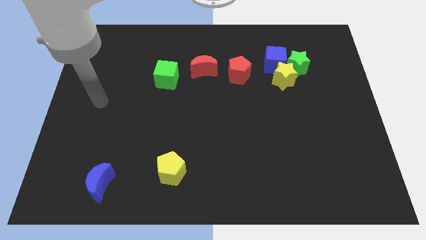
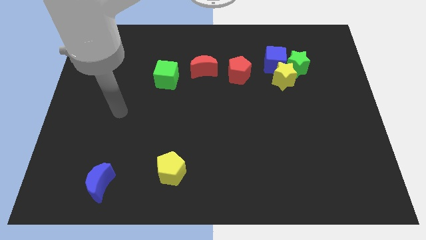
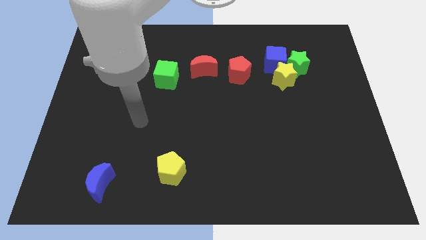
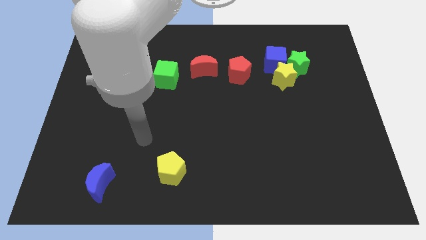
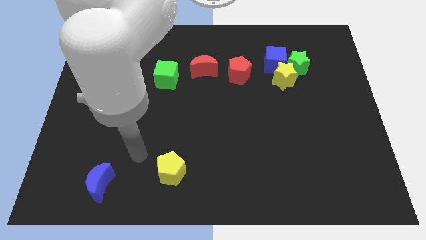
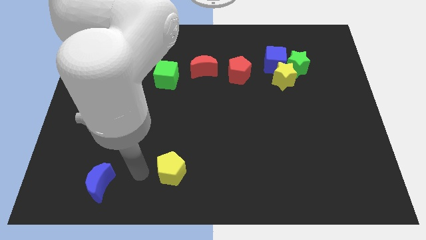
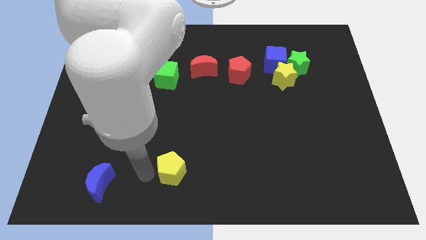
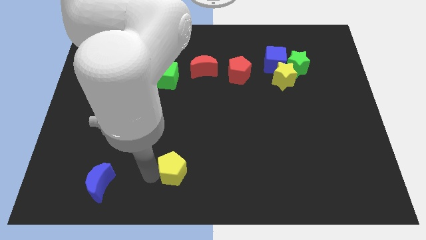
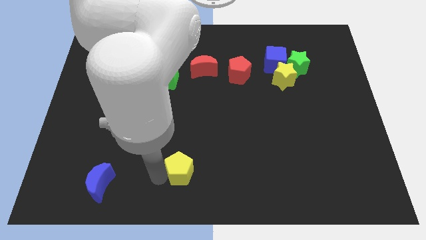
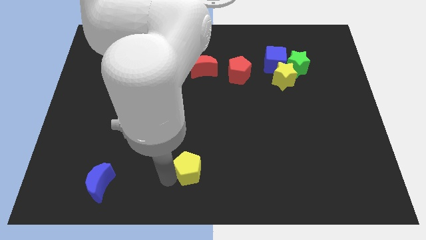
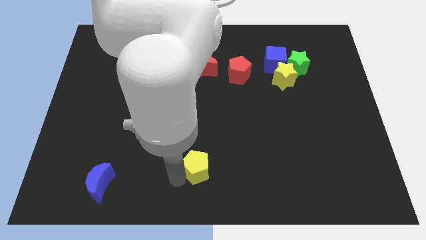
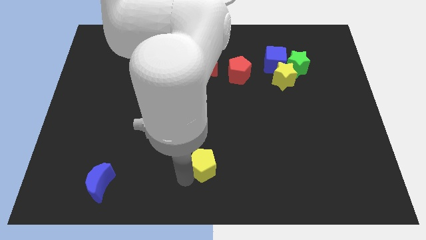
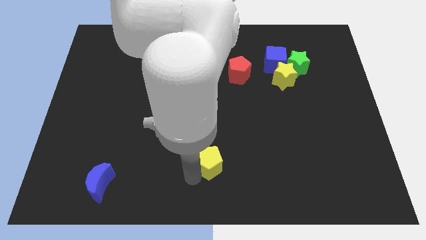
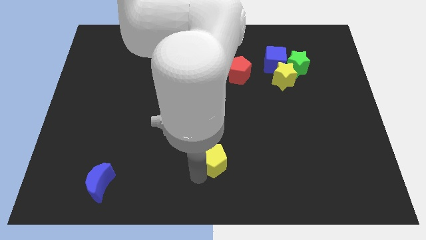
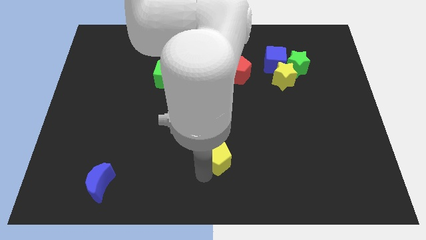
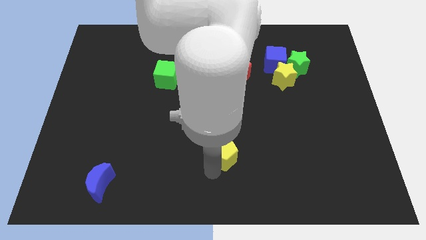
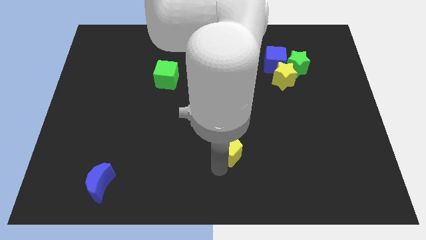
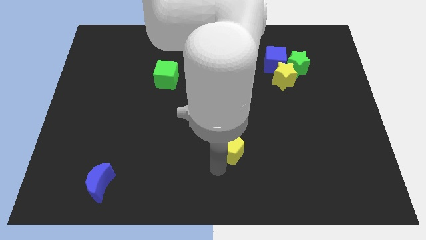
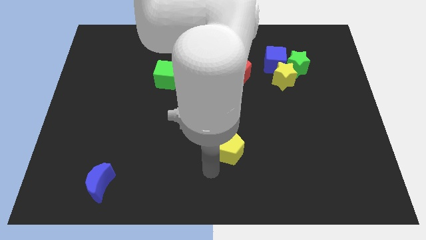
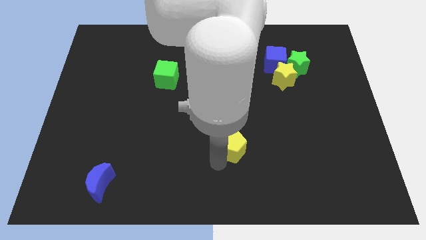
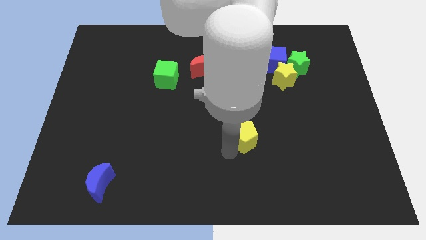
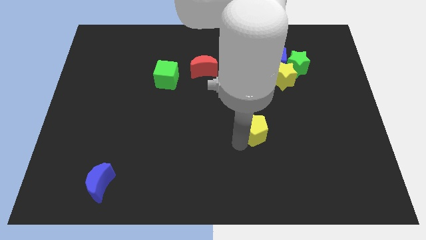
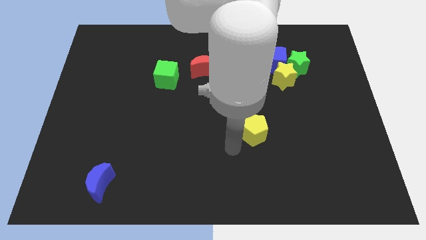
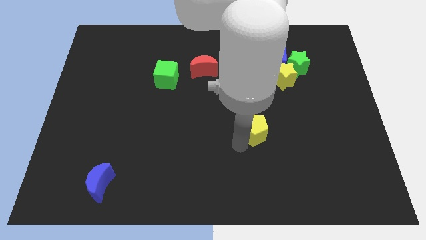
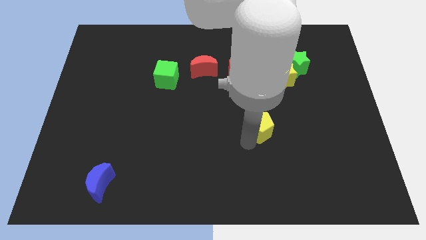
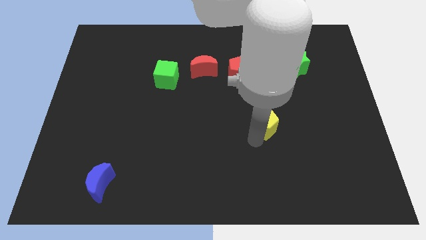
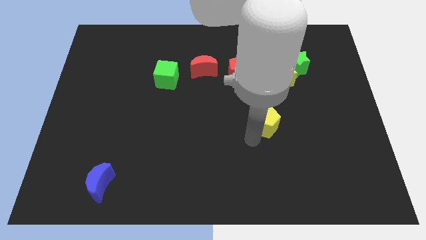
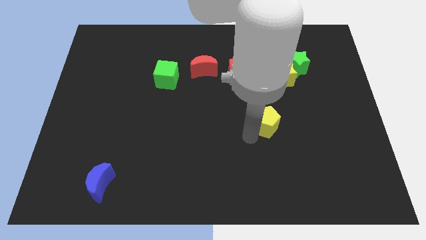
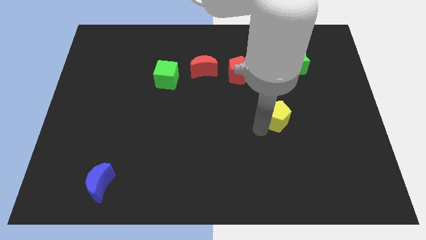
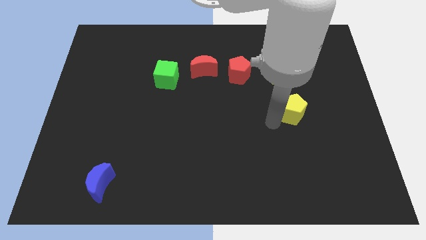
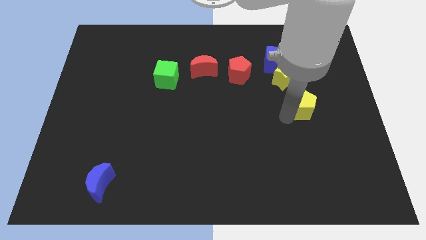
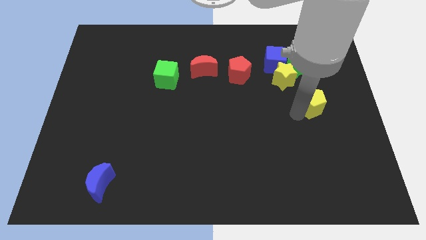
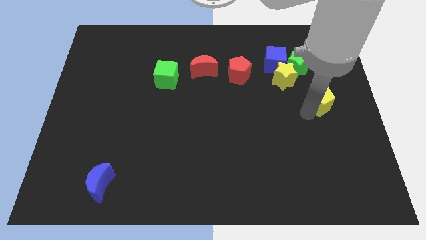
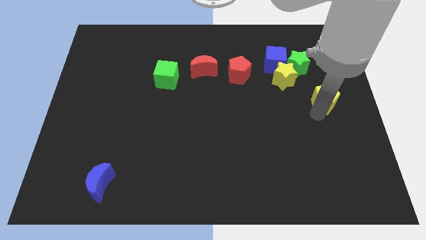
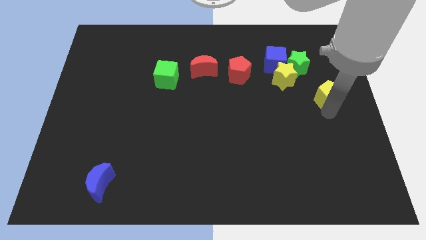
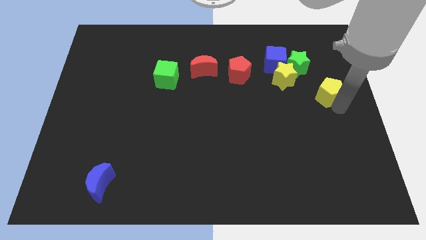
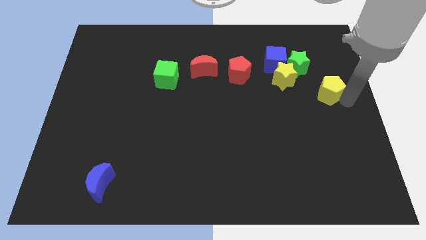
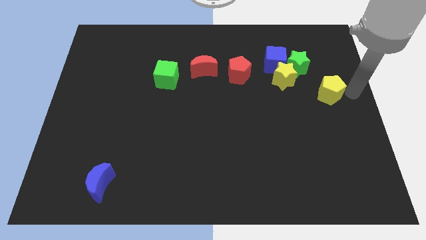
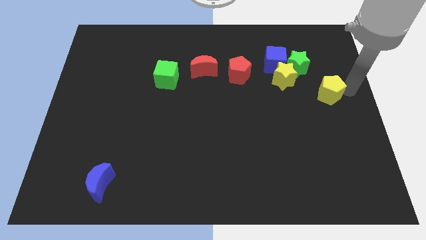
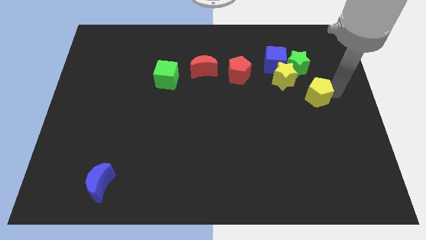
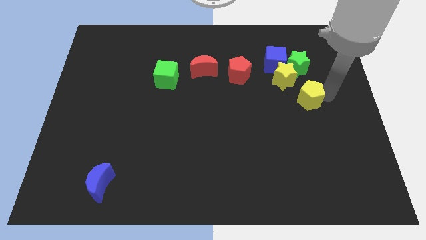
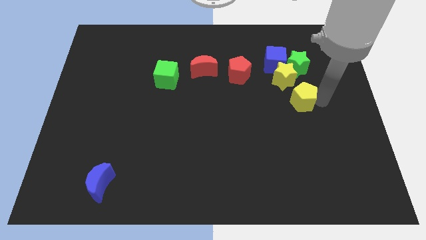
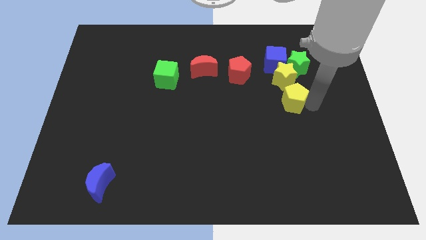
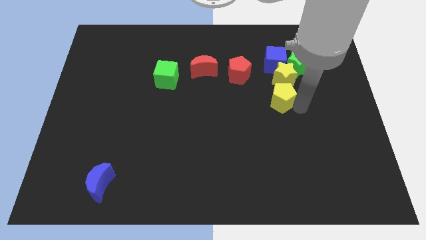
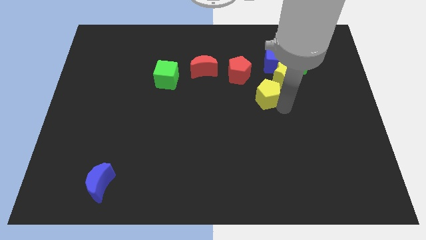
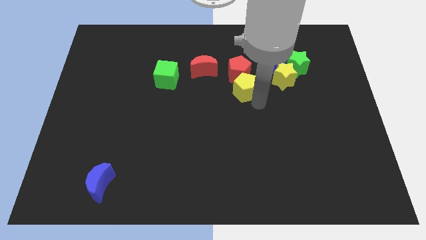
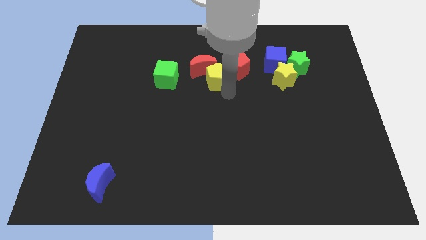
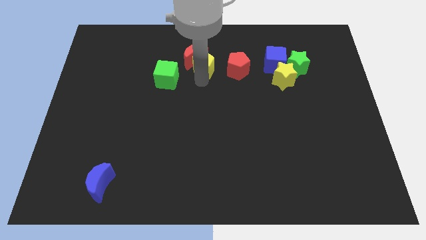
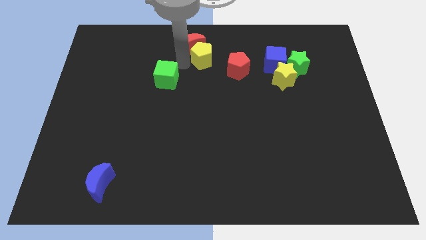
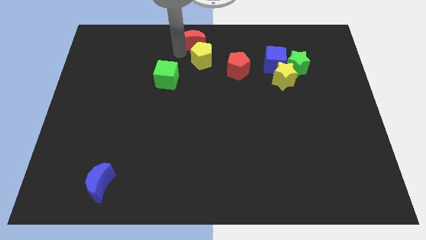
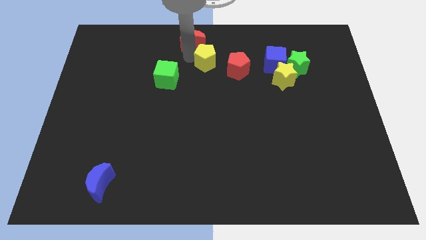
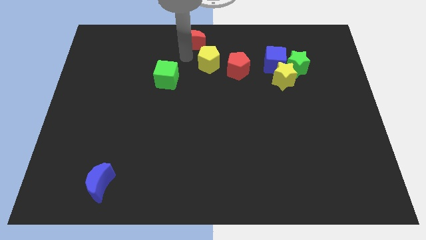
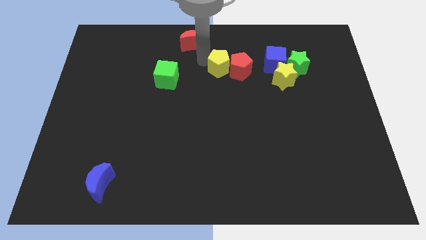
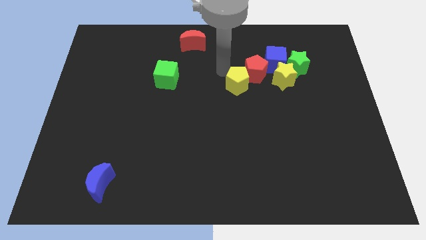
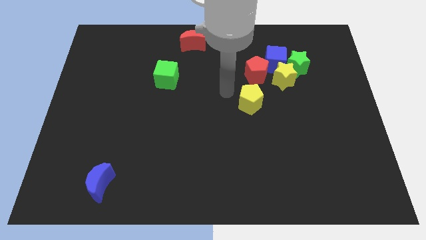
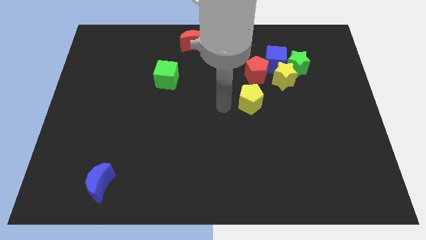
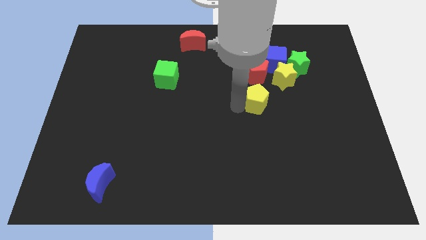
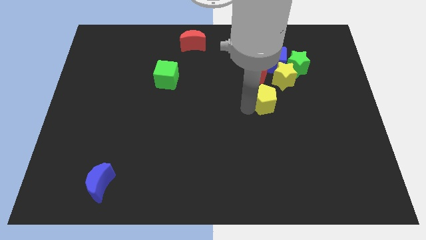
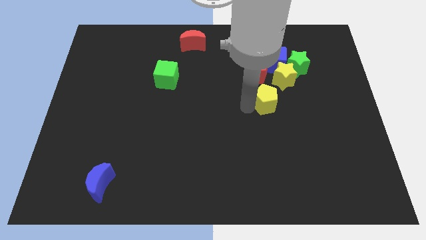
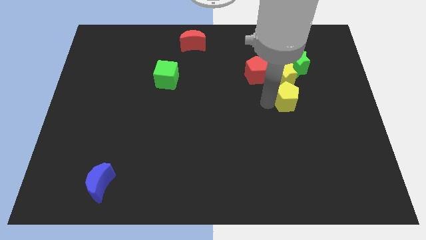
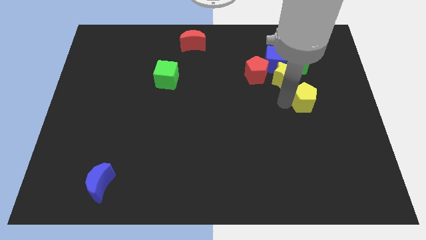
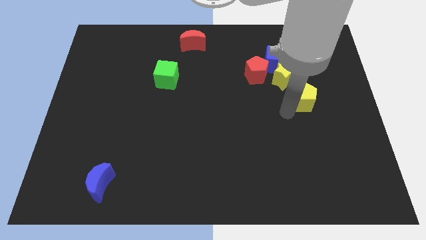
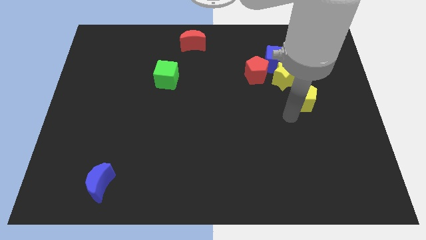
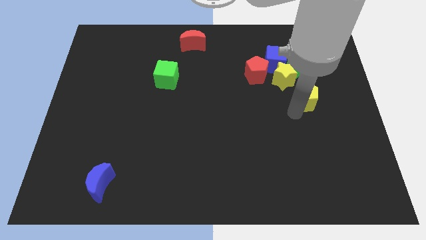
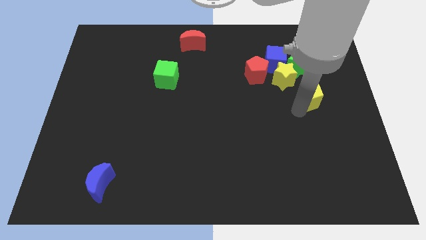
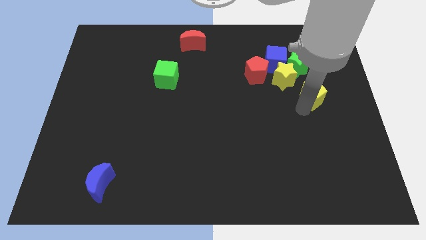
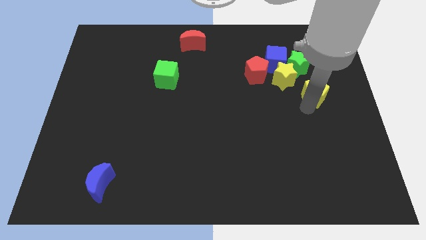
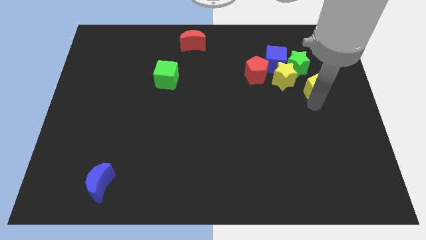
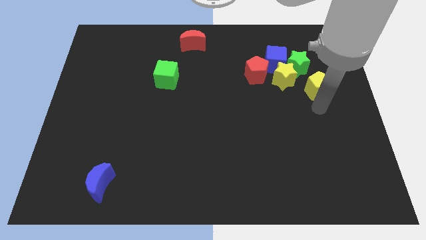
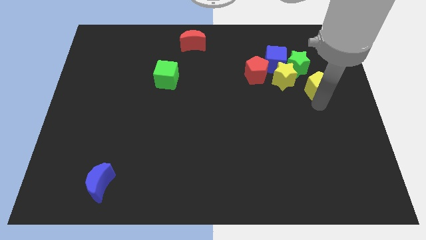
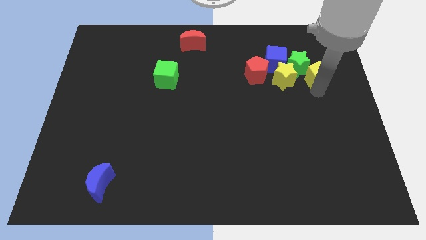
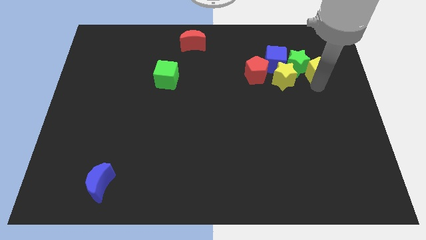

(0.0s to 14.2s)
push the yellow pentagon to the right of the blue cube

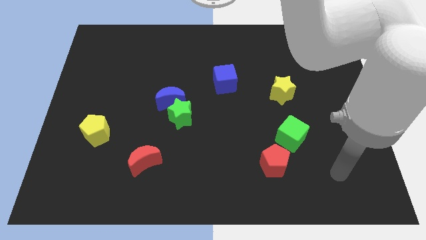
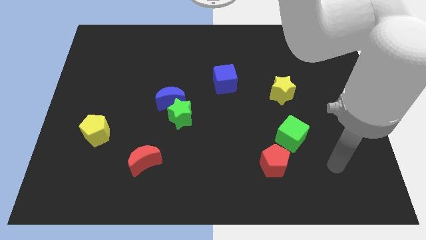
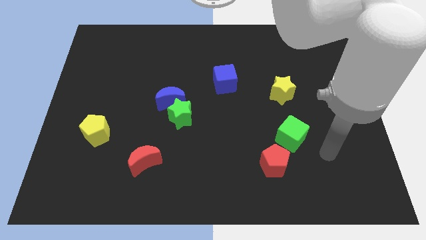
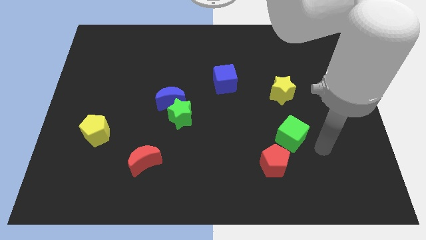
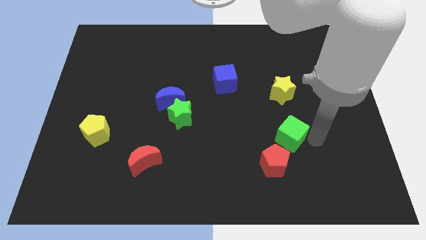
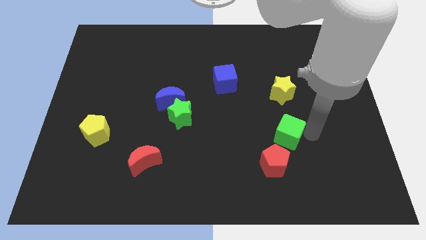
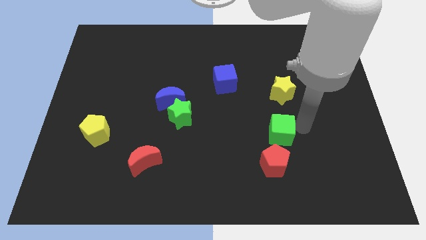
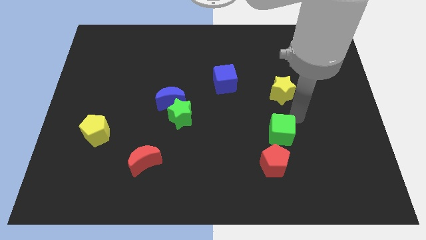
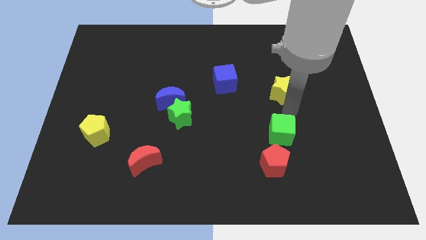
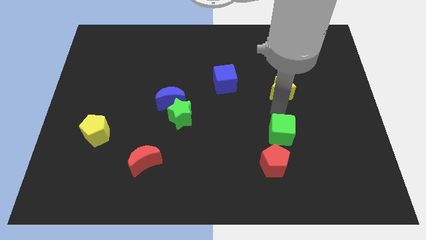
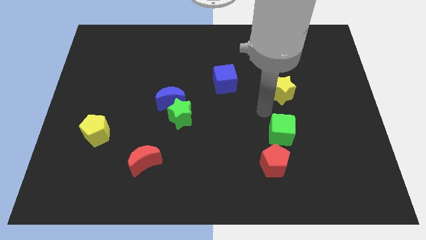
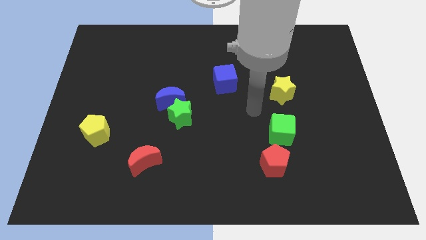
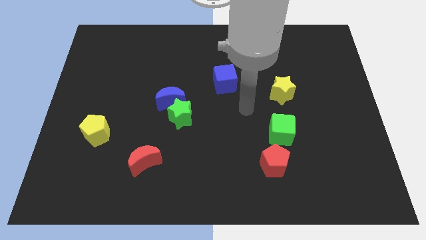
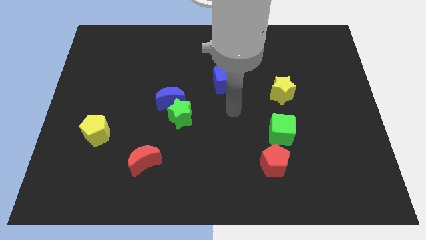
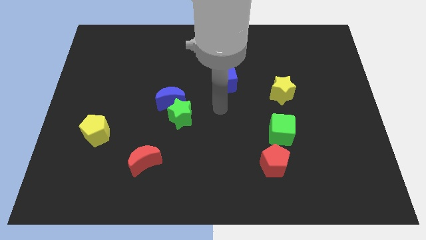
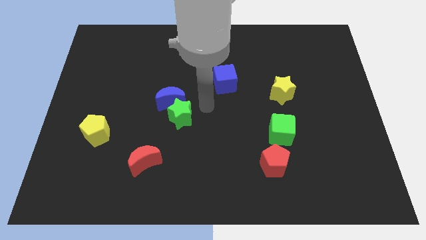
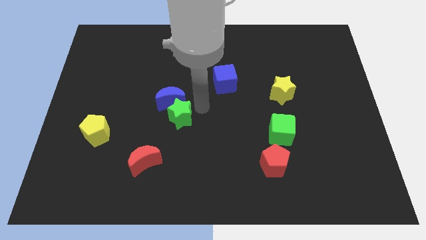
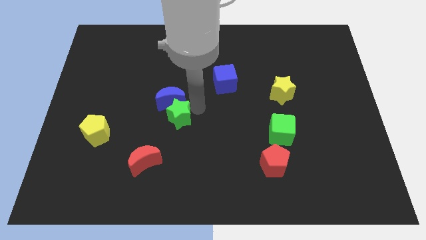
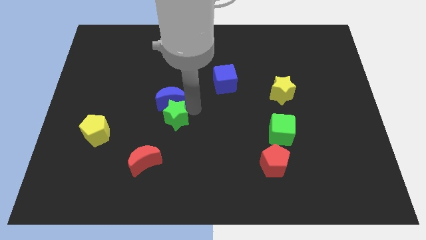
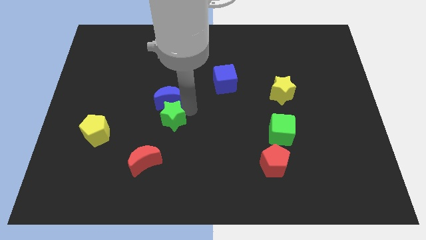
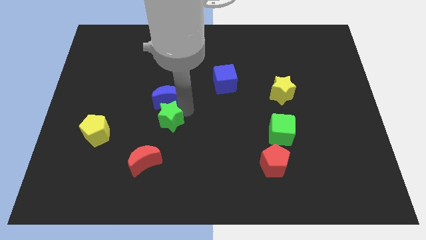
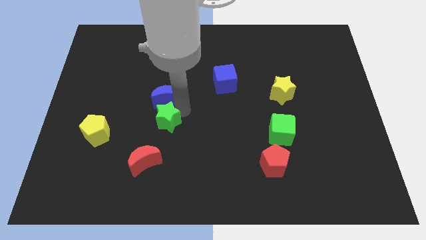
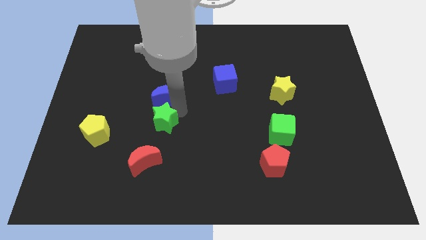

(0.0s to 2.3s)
slide the green star to the right side of the yellow pentagon
